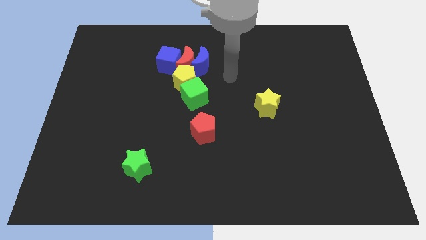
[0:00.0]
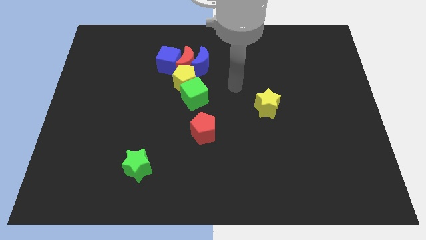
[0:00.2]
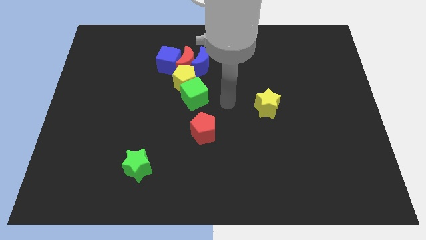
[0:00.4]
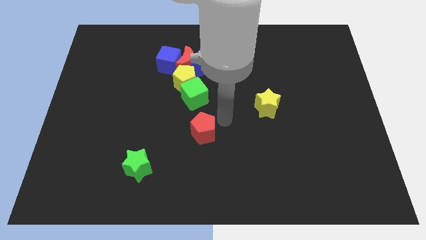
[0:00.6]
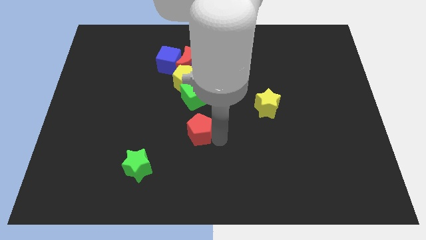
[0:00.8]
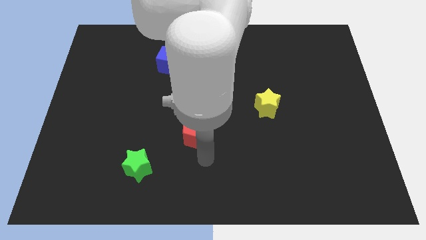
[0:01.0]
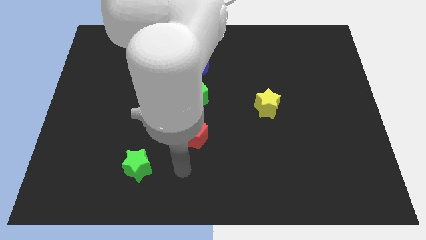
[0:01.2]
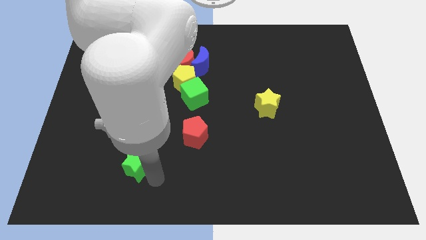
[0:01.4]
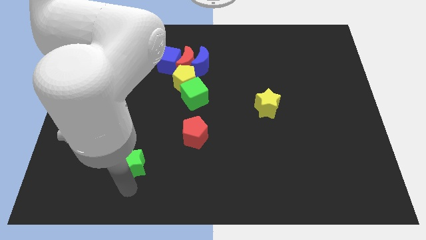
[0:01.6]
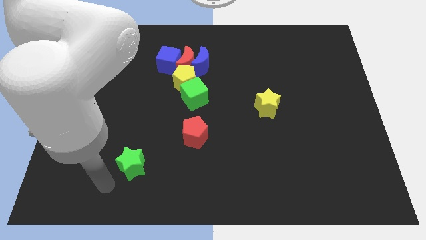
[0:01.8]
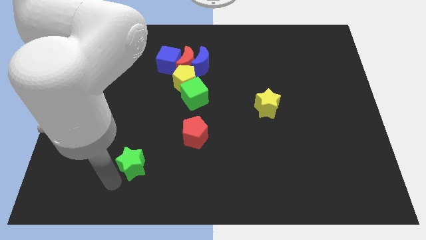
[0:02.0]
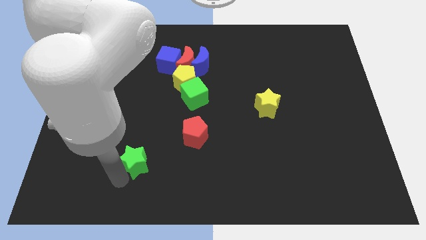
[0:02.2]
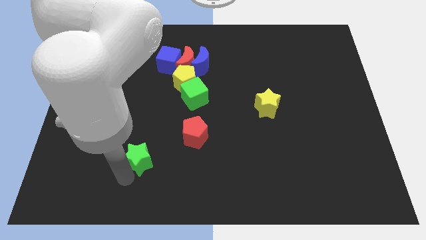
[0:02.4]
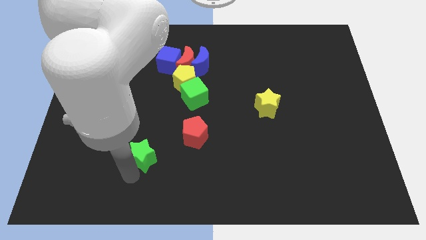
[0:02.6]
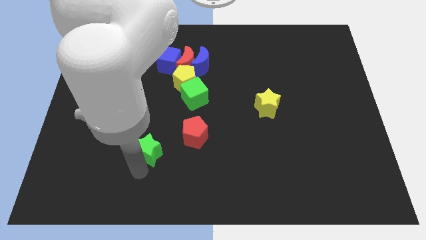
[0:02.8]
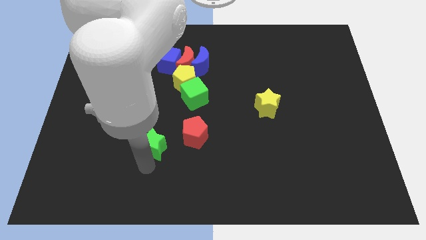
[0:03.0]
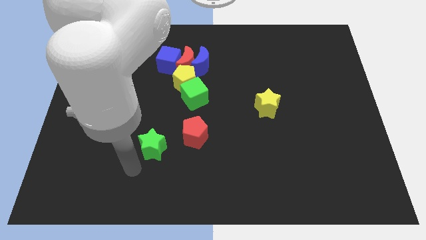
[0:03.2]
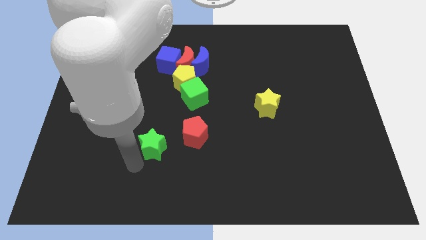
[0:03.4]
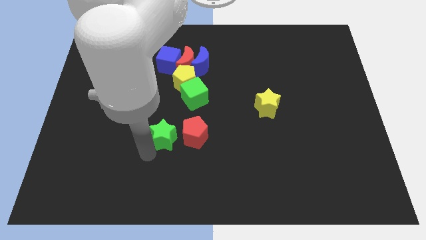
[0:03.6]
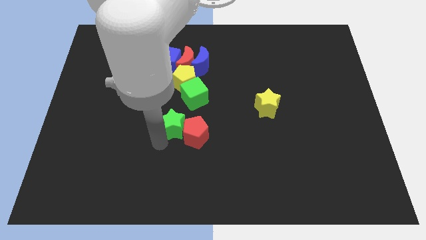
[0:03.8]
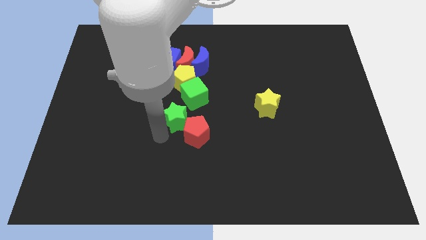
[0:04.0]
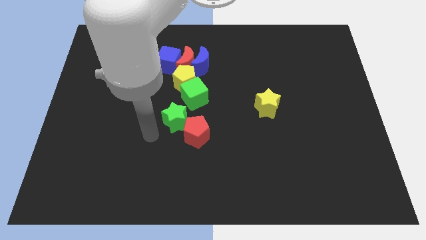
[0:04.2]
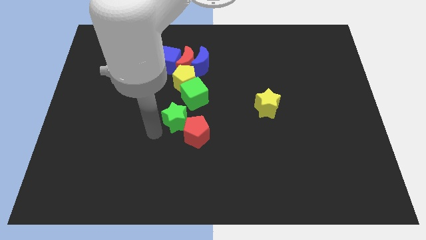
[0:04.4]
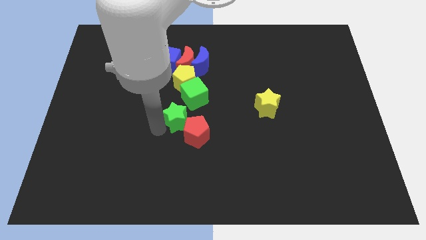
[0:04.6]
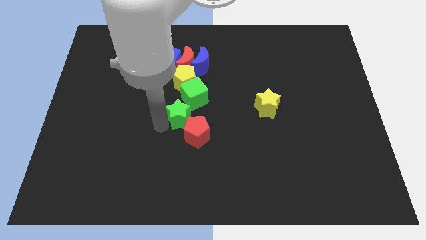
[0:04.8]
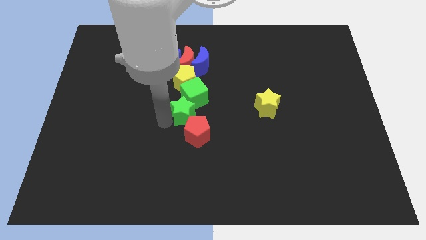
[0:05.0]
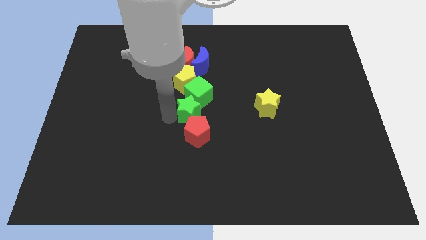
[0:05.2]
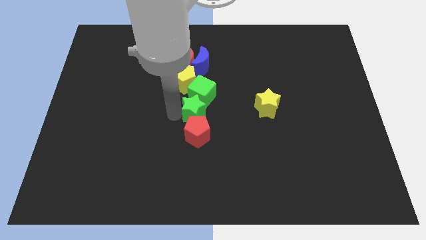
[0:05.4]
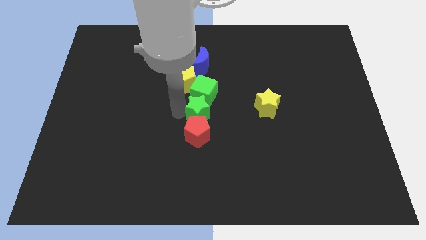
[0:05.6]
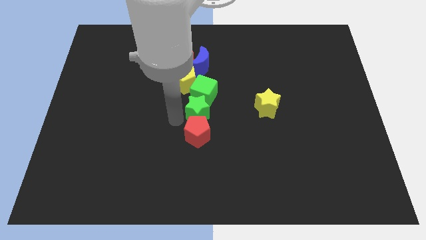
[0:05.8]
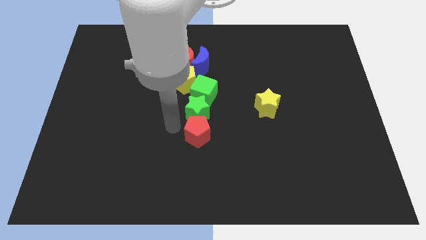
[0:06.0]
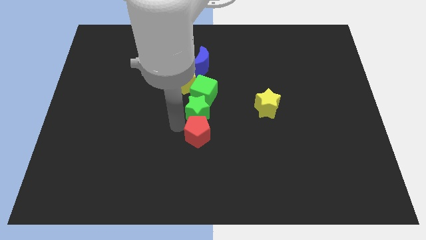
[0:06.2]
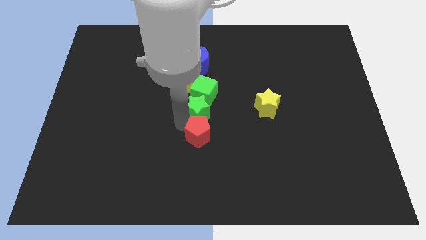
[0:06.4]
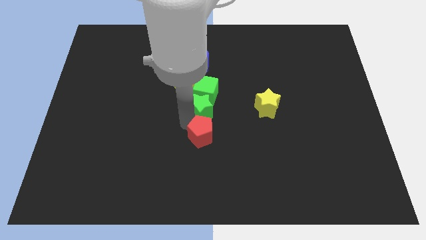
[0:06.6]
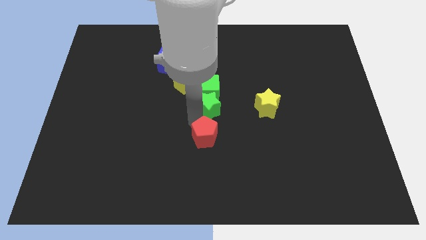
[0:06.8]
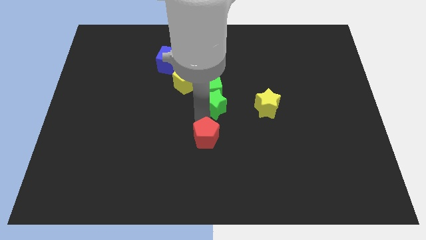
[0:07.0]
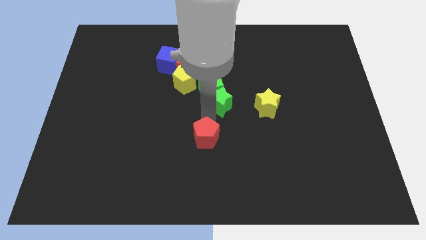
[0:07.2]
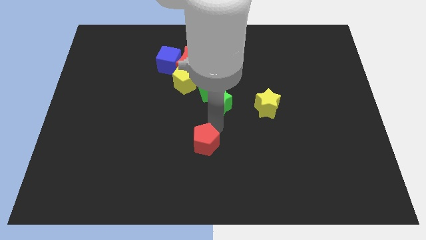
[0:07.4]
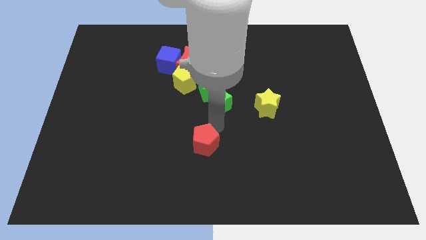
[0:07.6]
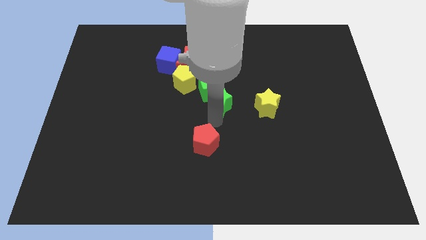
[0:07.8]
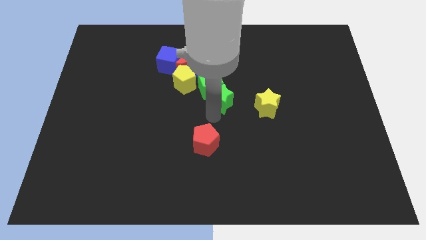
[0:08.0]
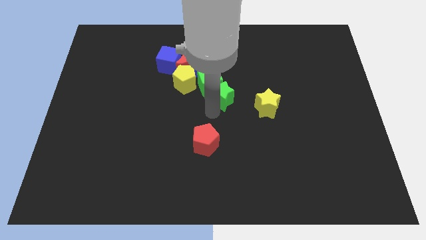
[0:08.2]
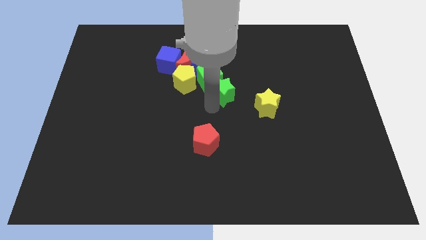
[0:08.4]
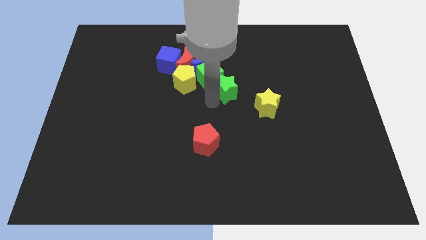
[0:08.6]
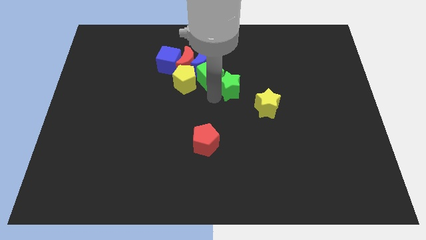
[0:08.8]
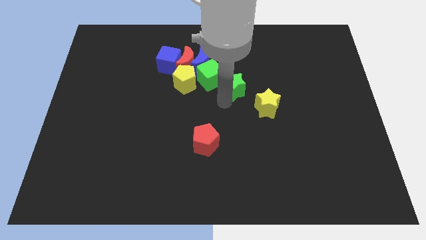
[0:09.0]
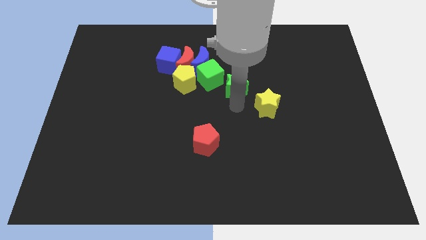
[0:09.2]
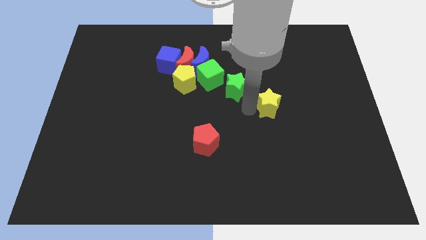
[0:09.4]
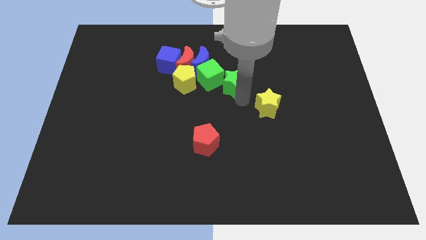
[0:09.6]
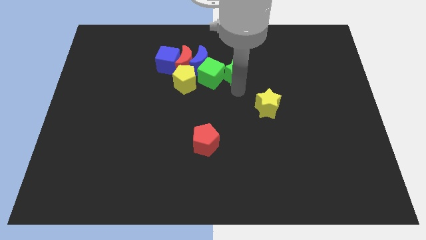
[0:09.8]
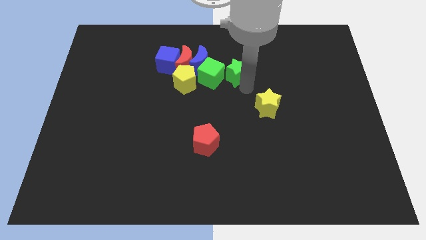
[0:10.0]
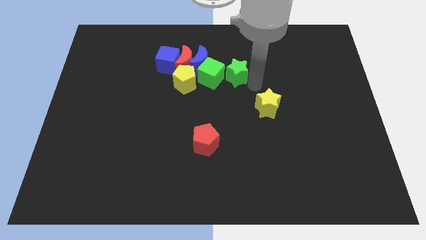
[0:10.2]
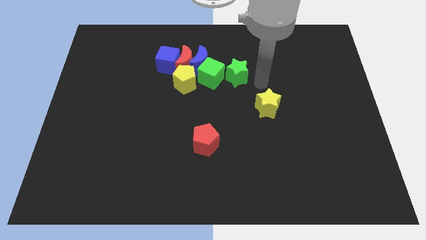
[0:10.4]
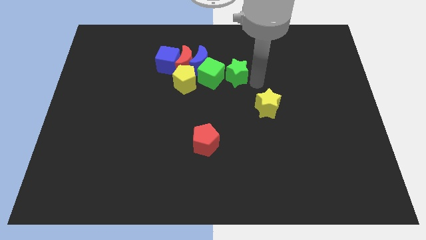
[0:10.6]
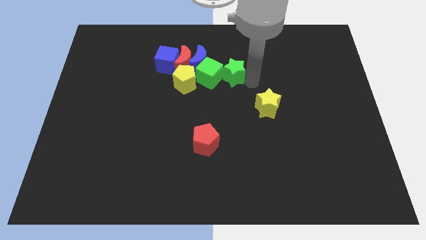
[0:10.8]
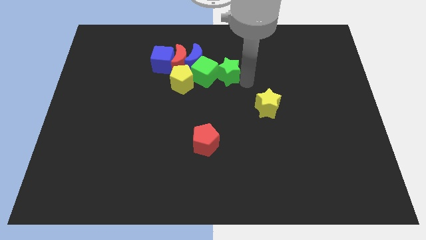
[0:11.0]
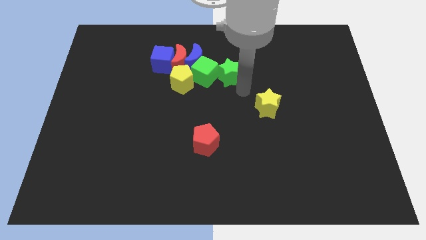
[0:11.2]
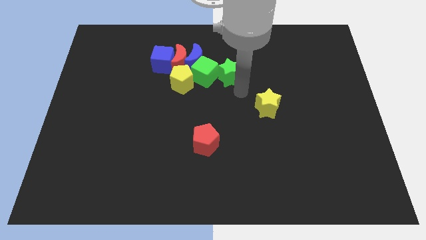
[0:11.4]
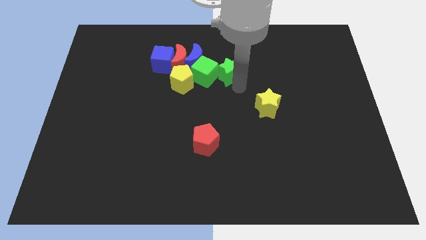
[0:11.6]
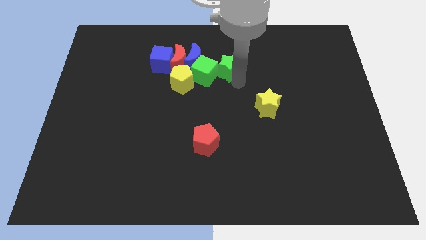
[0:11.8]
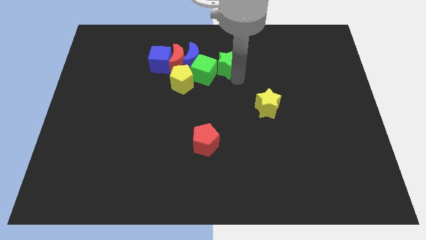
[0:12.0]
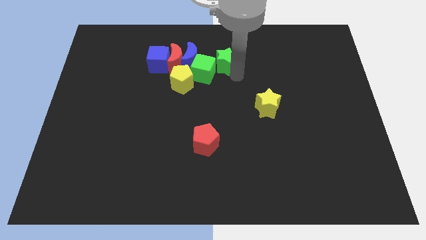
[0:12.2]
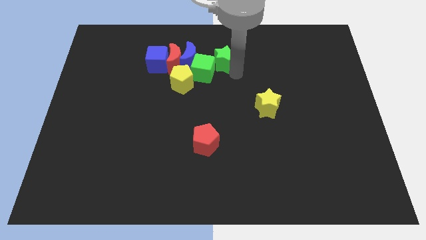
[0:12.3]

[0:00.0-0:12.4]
put the green star to the top right side of the yellow pentagon

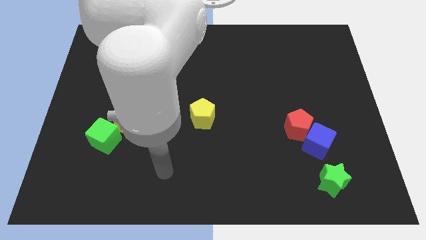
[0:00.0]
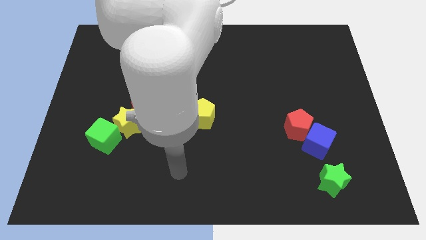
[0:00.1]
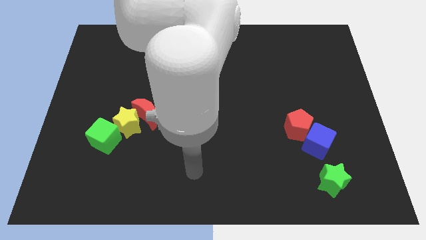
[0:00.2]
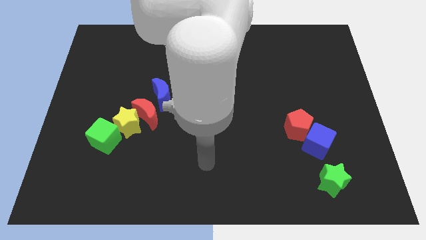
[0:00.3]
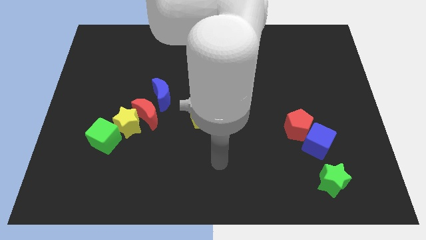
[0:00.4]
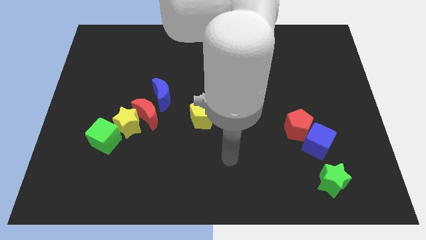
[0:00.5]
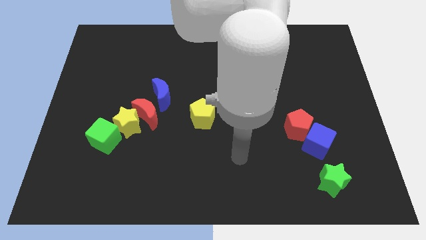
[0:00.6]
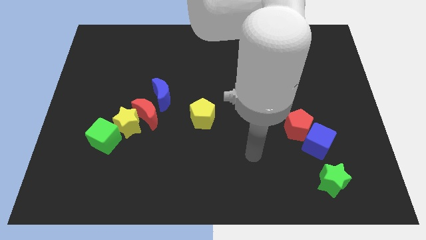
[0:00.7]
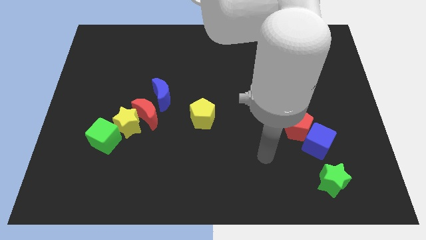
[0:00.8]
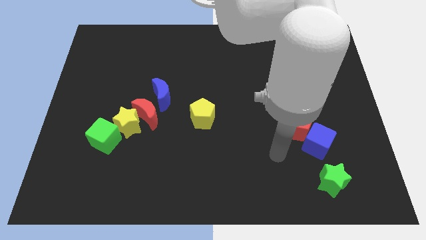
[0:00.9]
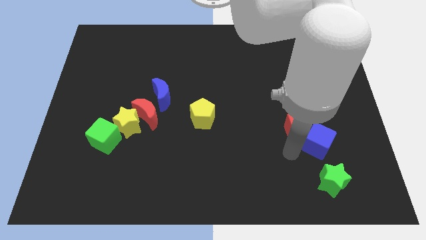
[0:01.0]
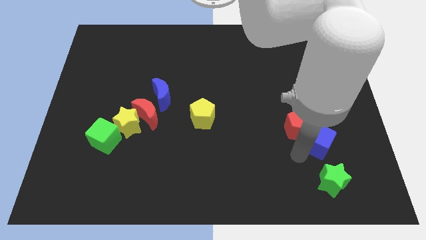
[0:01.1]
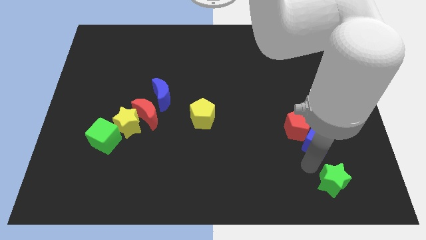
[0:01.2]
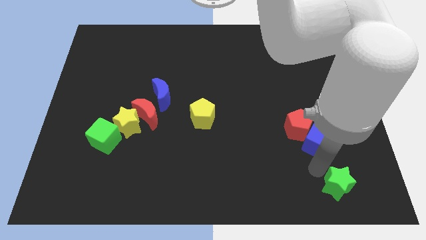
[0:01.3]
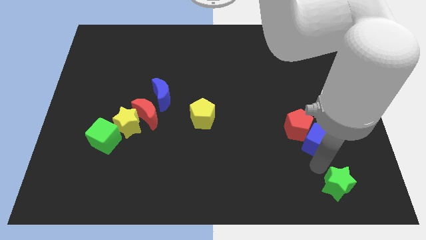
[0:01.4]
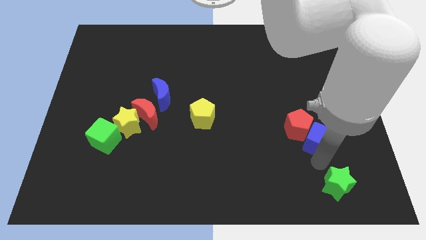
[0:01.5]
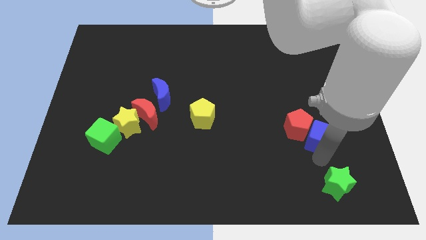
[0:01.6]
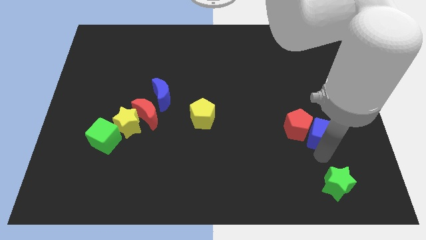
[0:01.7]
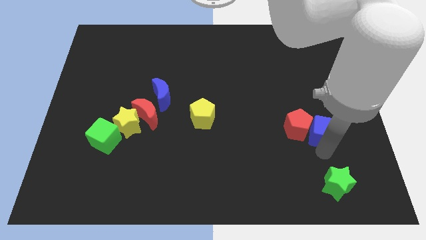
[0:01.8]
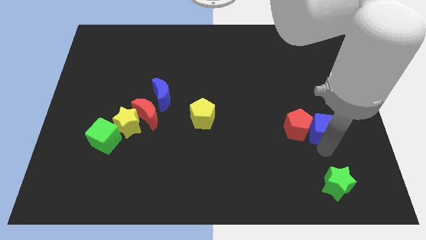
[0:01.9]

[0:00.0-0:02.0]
push the blue cube to the top right of the red pentagon
